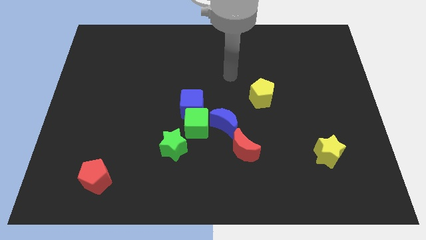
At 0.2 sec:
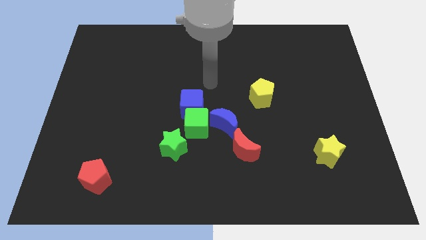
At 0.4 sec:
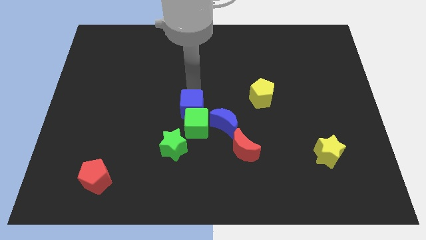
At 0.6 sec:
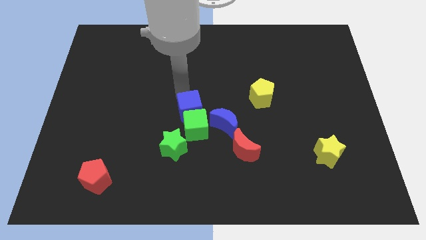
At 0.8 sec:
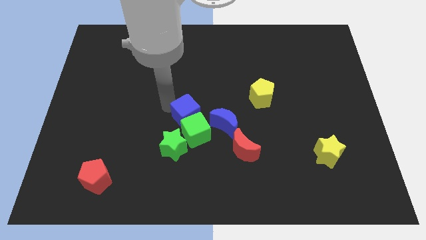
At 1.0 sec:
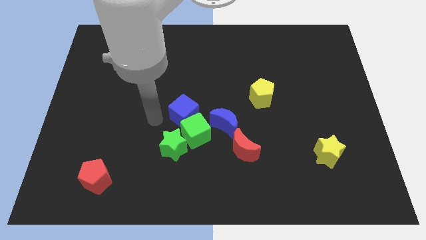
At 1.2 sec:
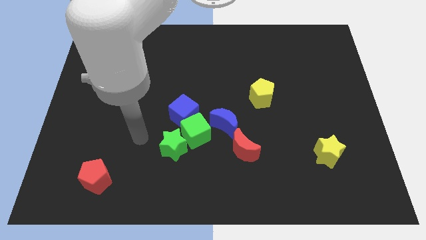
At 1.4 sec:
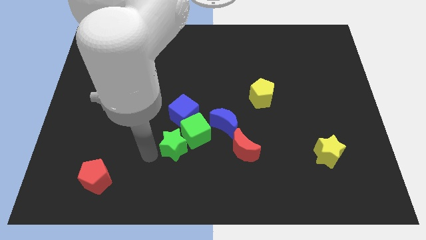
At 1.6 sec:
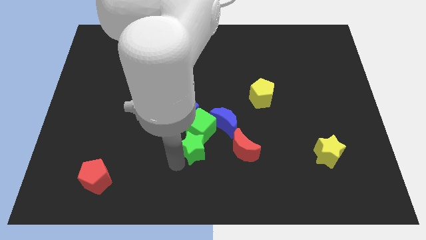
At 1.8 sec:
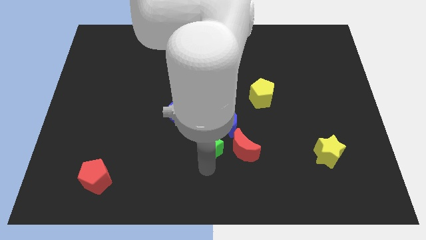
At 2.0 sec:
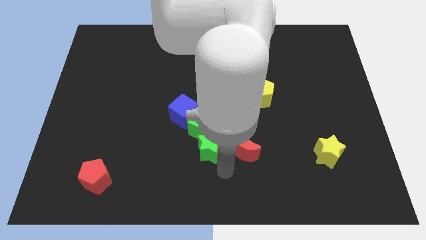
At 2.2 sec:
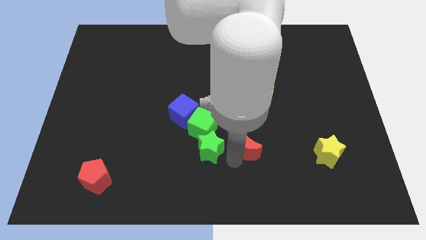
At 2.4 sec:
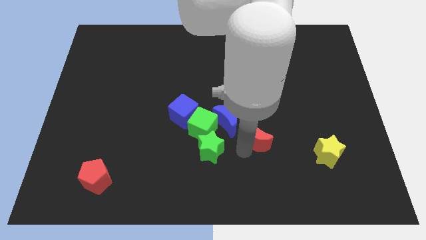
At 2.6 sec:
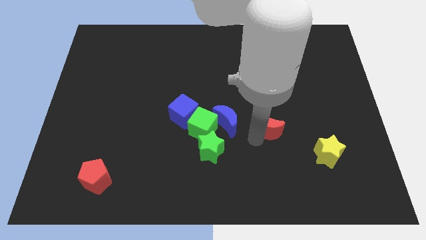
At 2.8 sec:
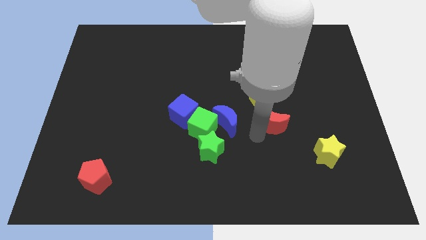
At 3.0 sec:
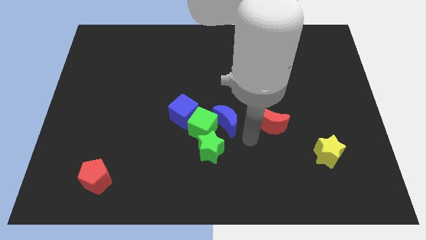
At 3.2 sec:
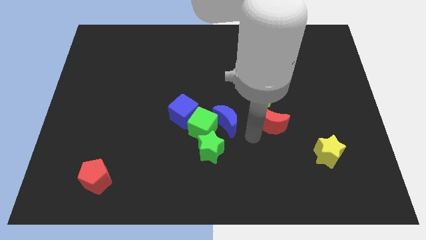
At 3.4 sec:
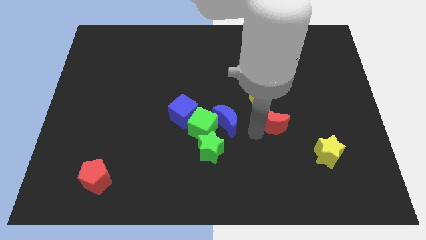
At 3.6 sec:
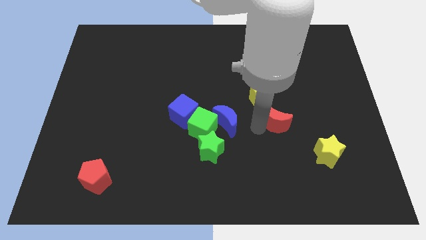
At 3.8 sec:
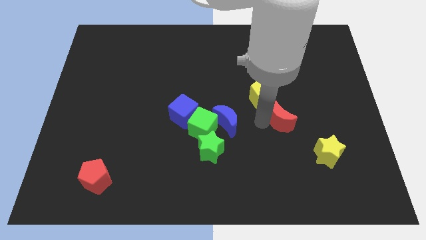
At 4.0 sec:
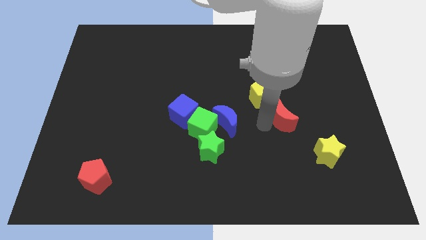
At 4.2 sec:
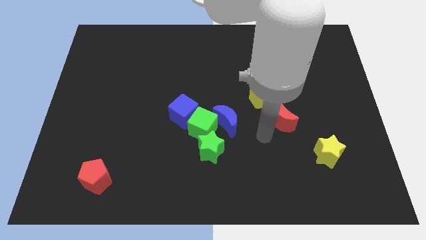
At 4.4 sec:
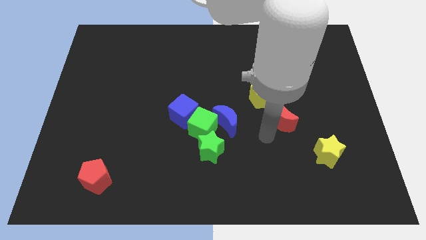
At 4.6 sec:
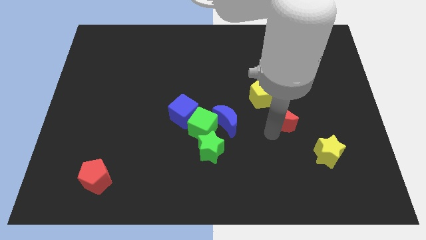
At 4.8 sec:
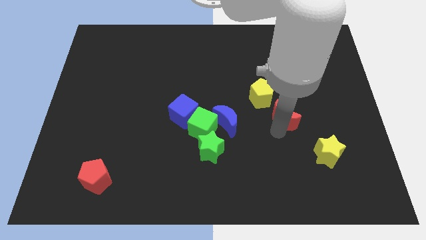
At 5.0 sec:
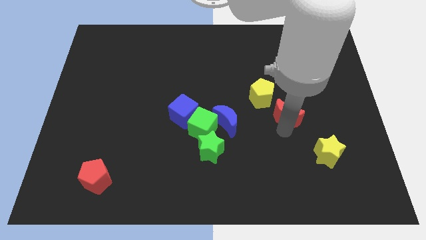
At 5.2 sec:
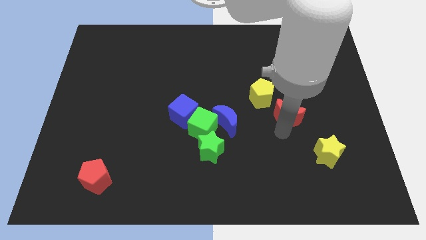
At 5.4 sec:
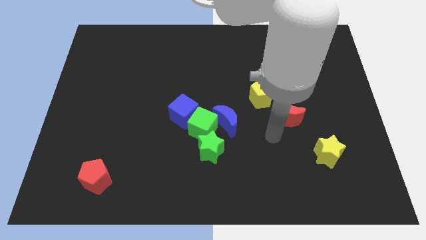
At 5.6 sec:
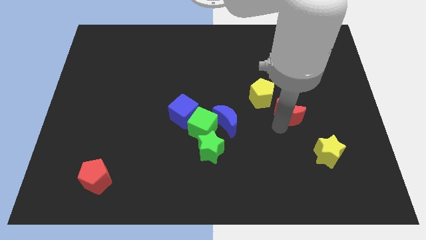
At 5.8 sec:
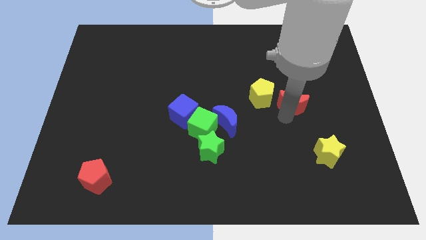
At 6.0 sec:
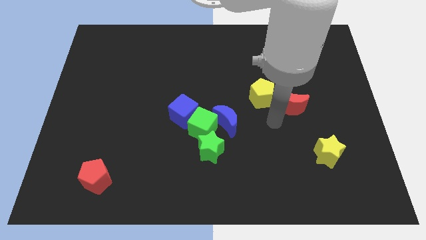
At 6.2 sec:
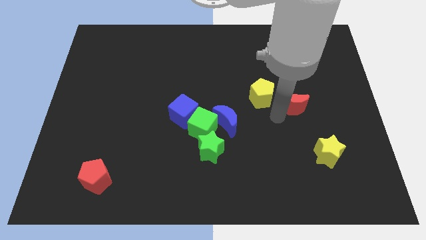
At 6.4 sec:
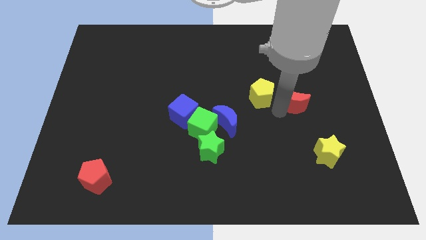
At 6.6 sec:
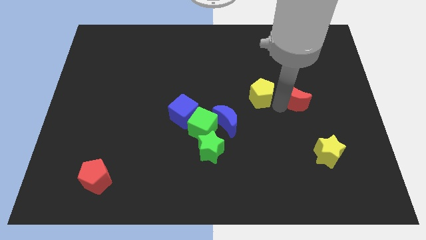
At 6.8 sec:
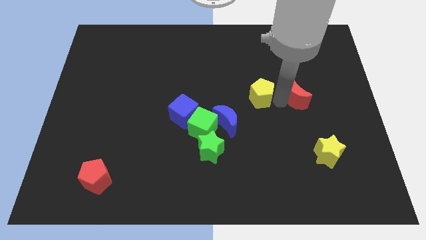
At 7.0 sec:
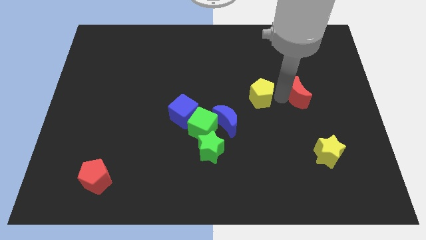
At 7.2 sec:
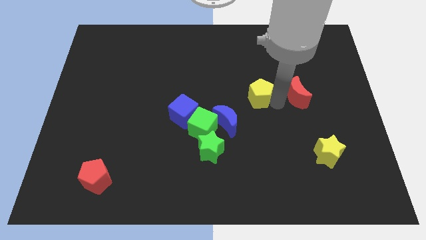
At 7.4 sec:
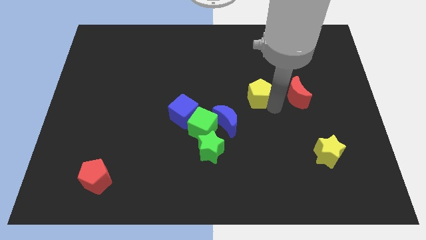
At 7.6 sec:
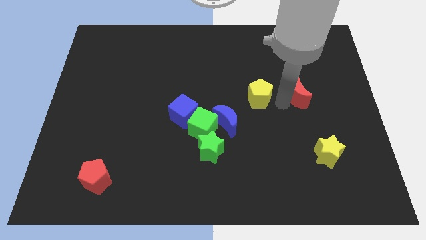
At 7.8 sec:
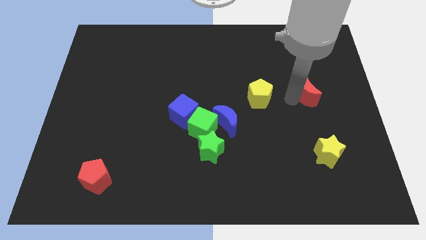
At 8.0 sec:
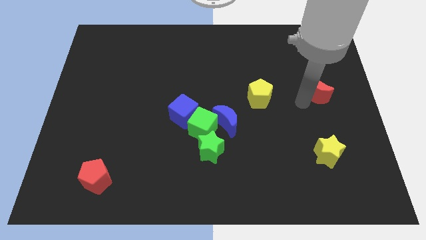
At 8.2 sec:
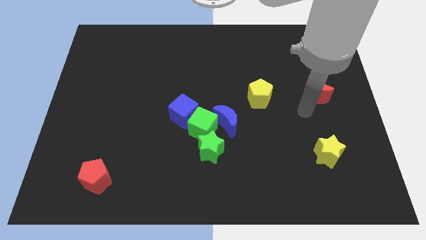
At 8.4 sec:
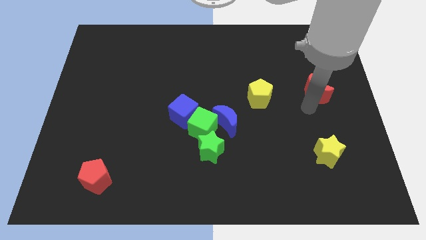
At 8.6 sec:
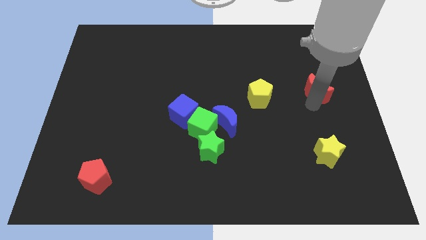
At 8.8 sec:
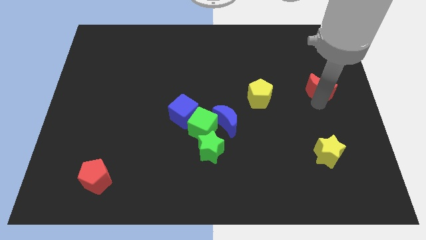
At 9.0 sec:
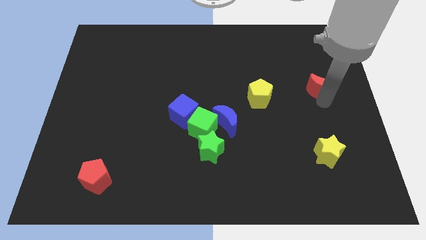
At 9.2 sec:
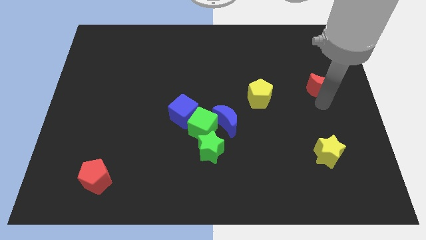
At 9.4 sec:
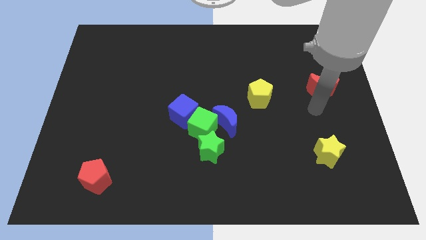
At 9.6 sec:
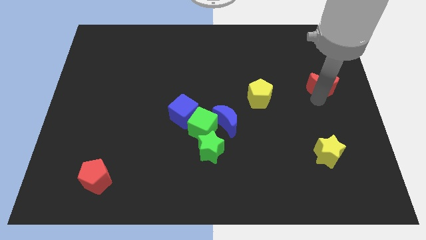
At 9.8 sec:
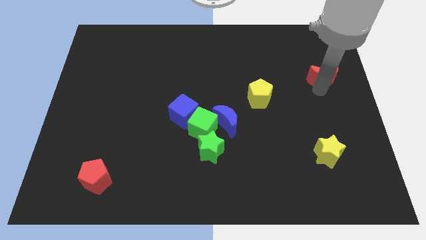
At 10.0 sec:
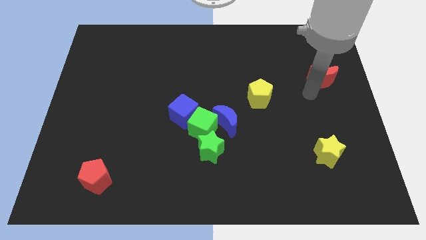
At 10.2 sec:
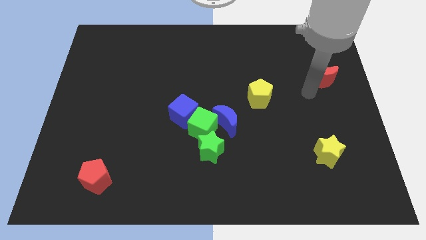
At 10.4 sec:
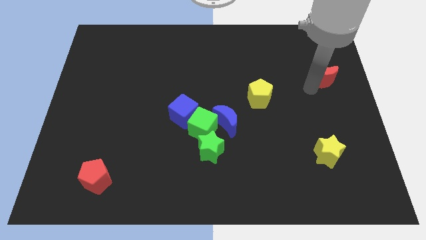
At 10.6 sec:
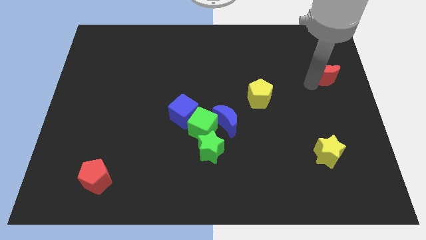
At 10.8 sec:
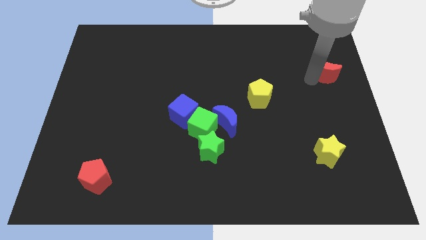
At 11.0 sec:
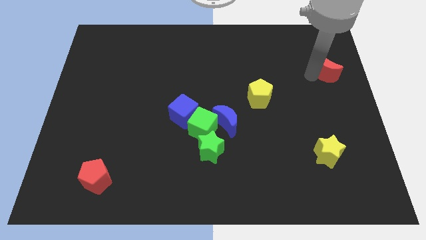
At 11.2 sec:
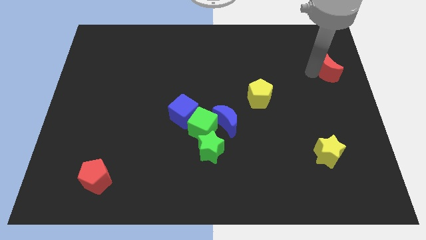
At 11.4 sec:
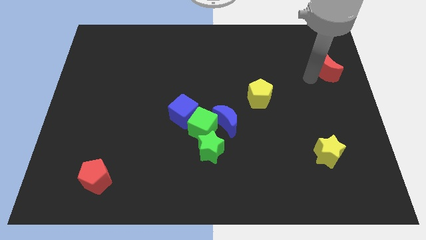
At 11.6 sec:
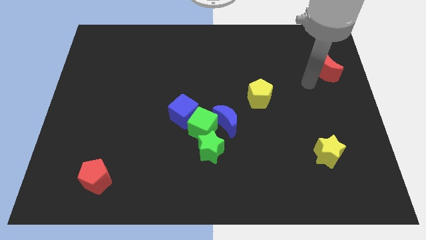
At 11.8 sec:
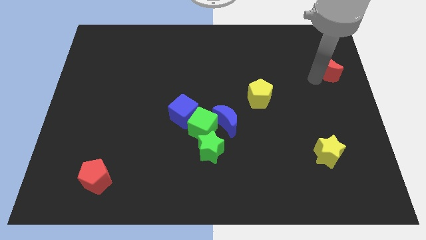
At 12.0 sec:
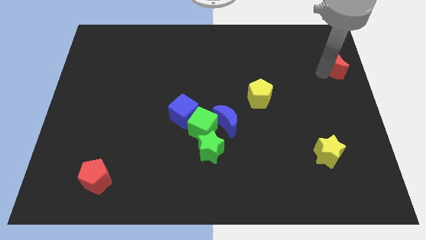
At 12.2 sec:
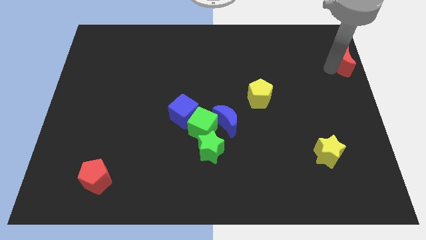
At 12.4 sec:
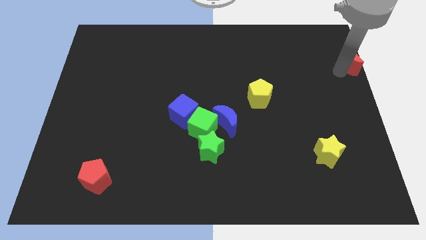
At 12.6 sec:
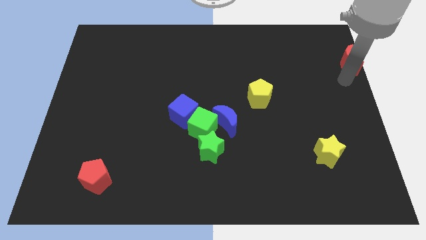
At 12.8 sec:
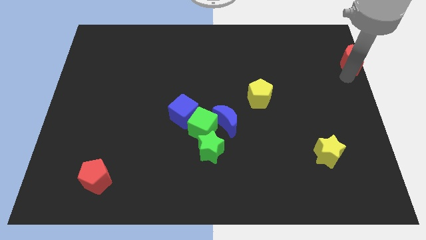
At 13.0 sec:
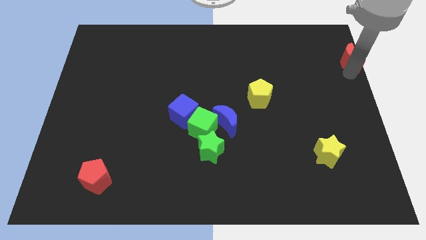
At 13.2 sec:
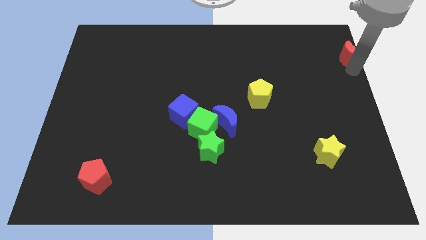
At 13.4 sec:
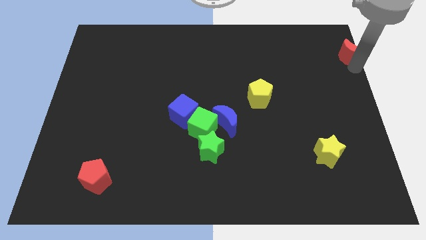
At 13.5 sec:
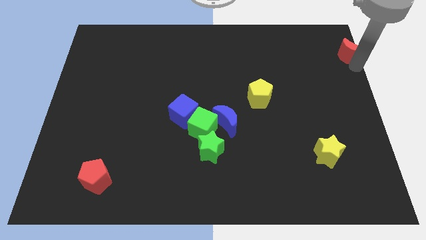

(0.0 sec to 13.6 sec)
move the red moon to the top right corner
